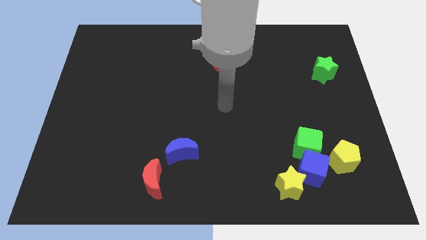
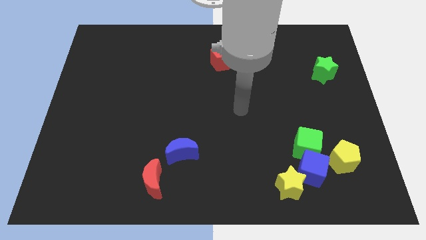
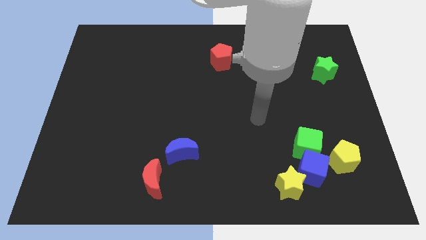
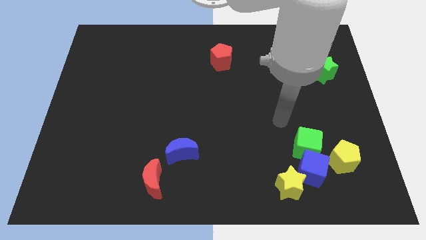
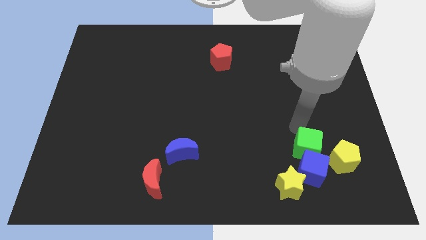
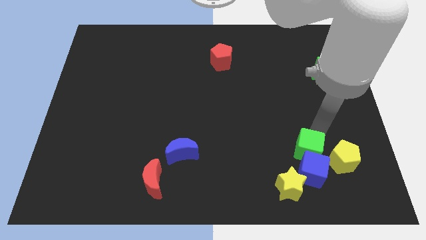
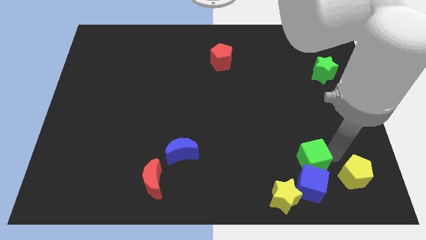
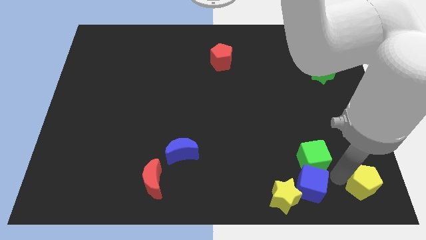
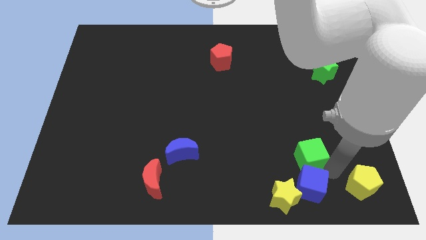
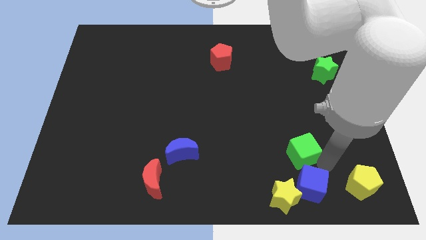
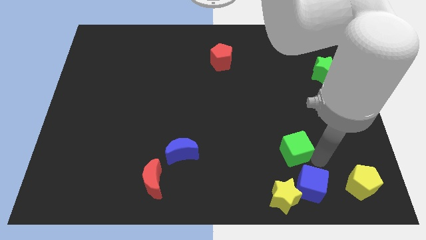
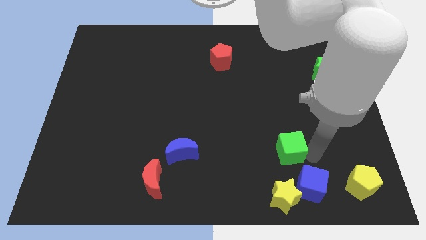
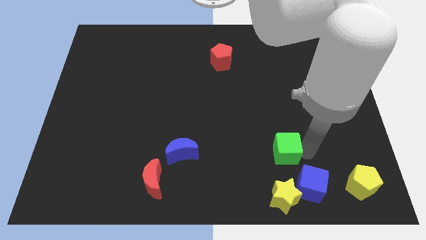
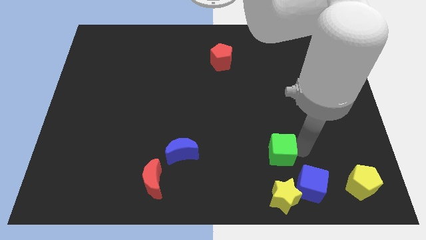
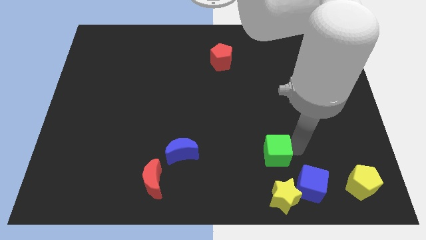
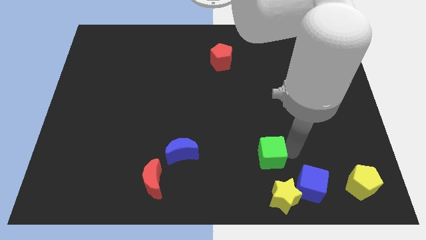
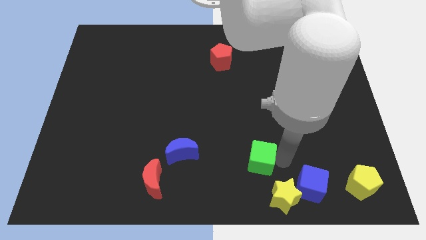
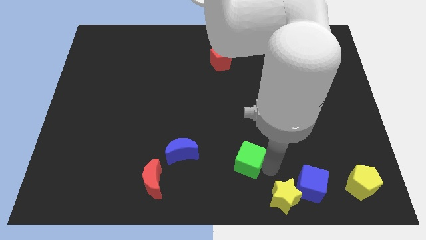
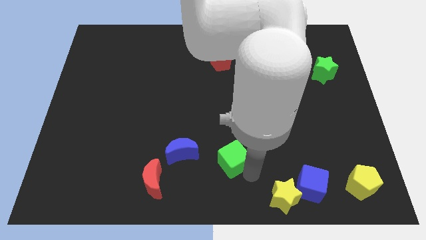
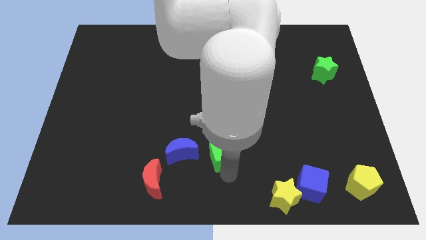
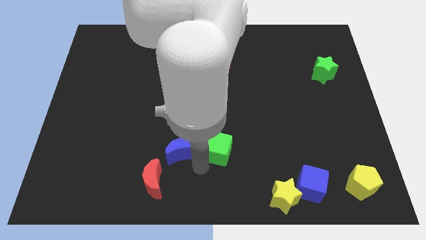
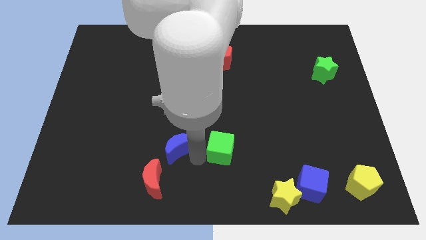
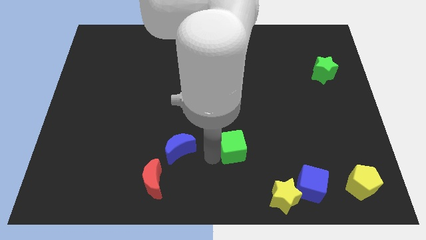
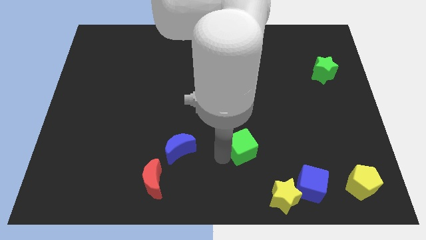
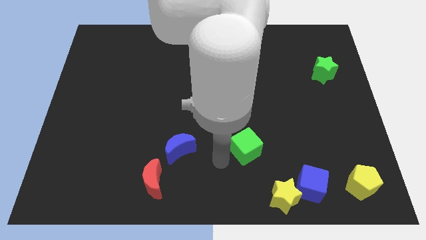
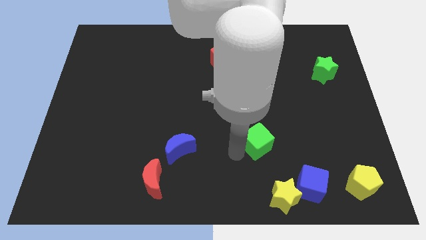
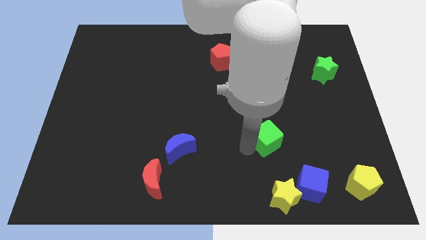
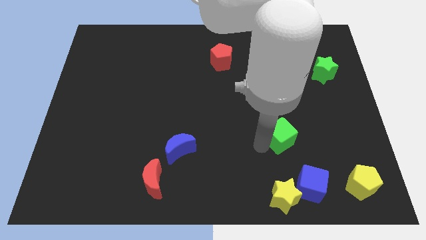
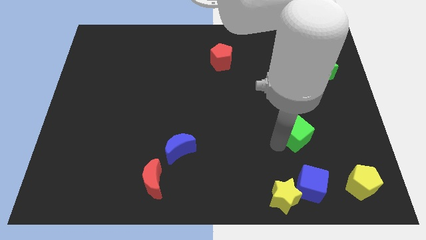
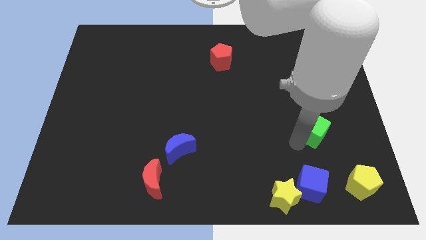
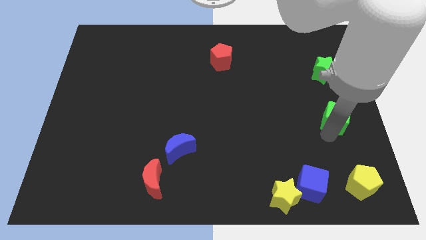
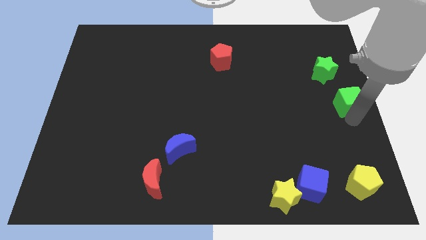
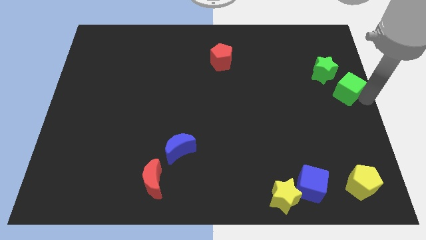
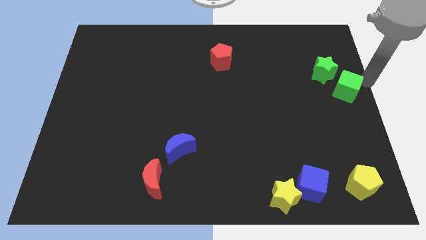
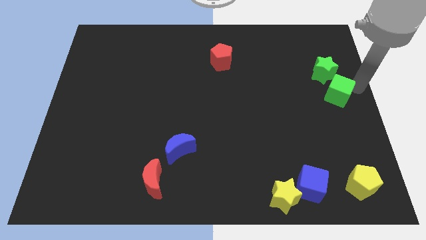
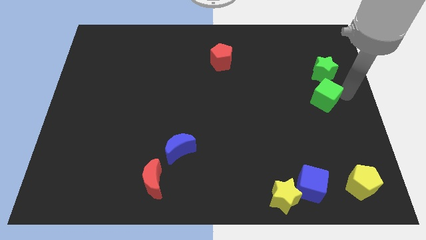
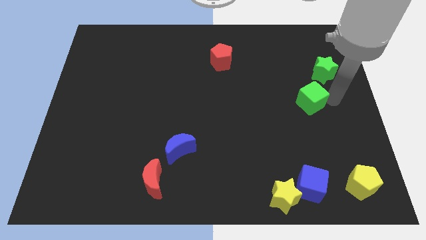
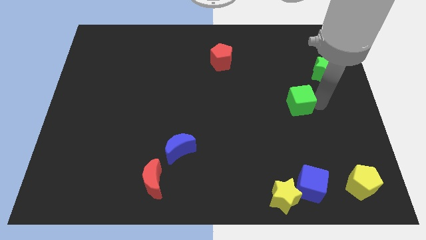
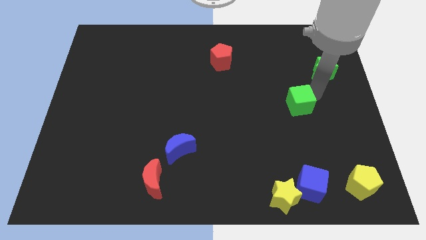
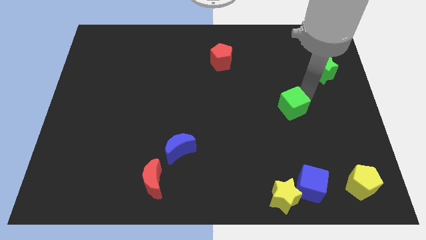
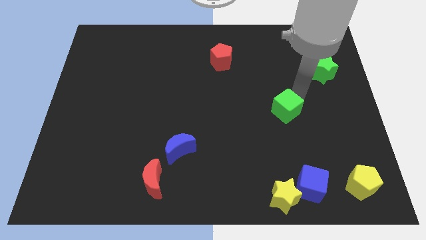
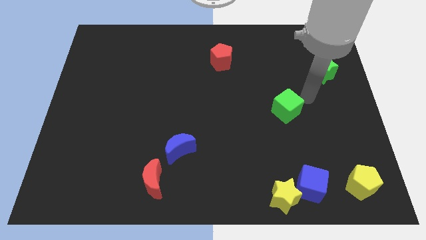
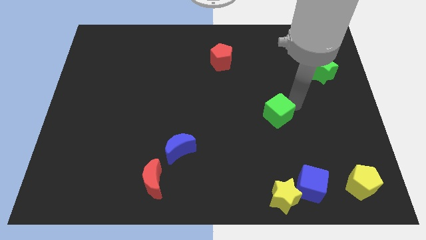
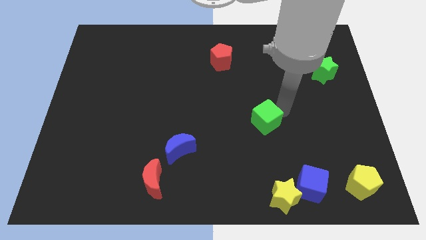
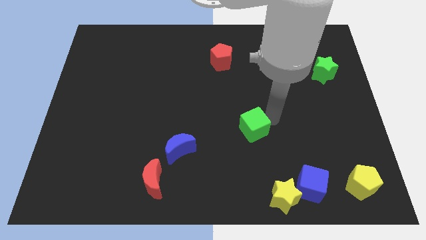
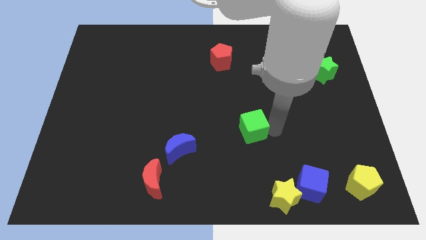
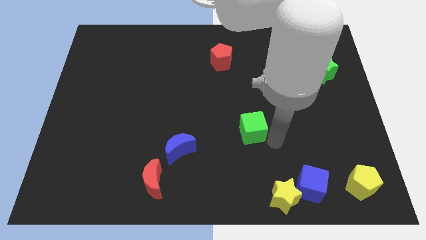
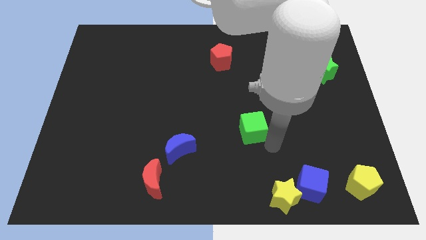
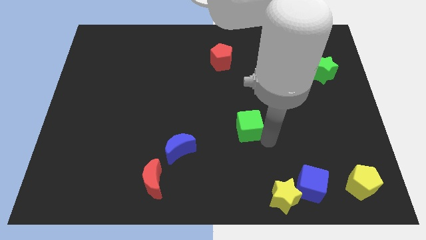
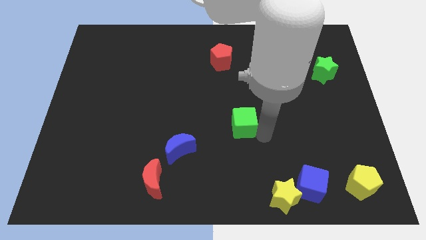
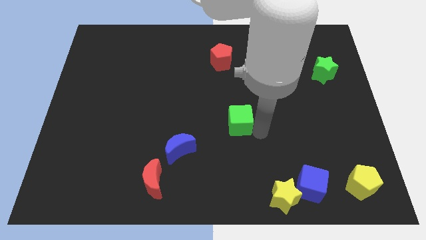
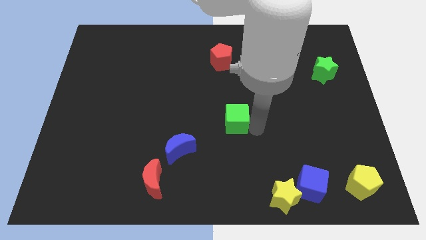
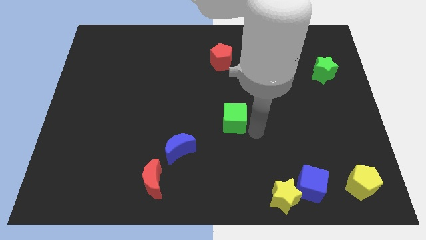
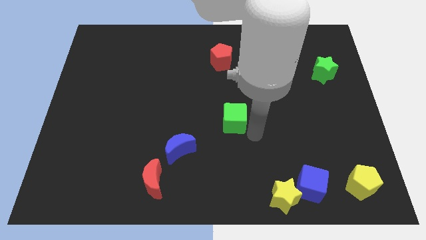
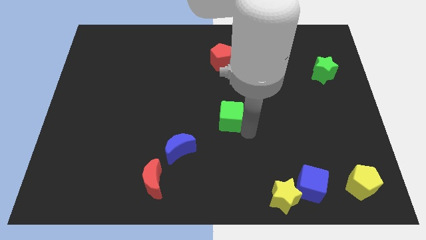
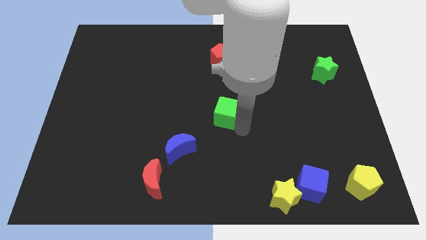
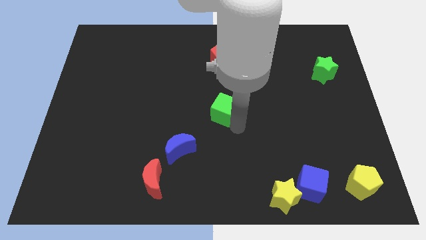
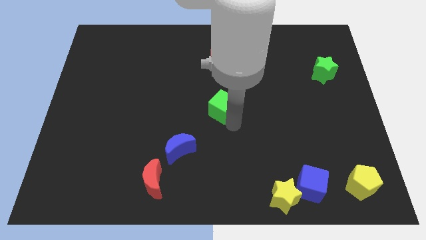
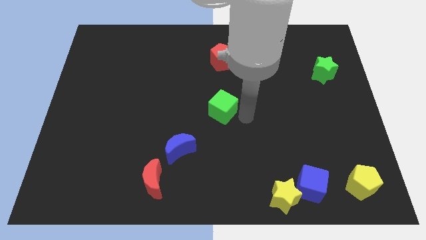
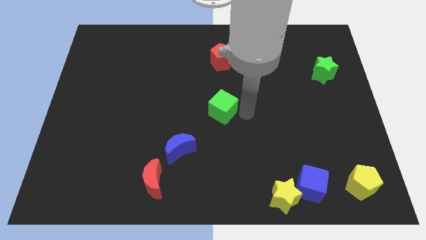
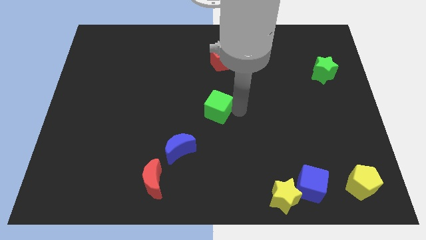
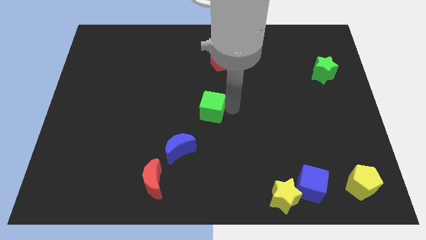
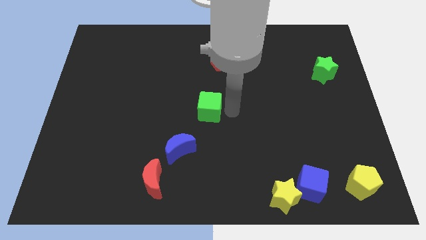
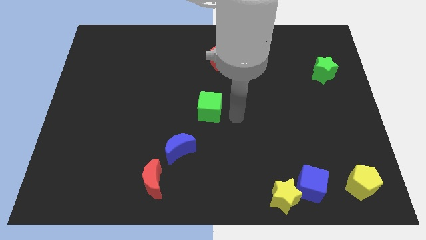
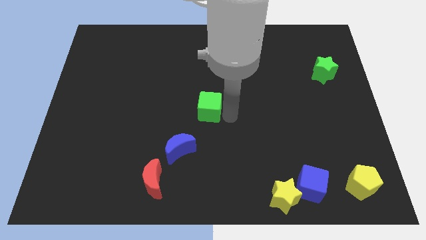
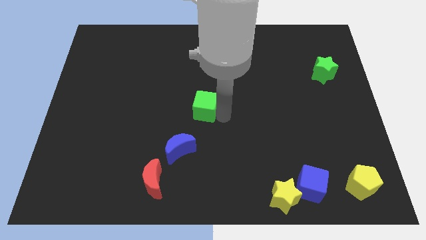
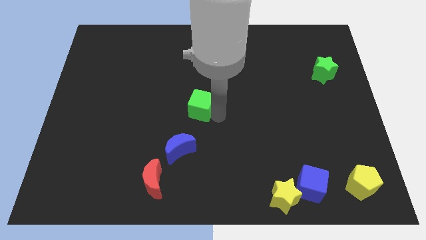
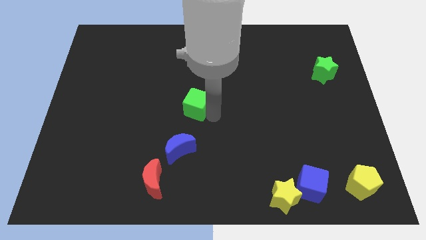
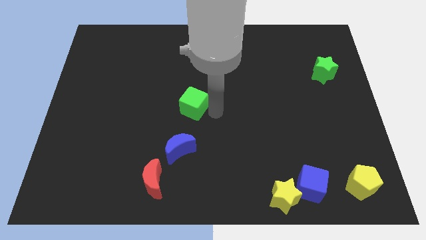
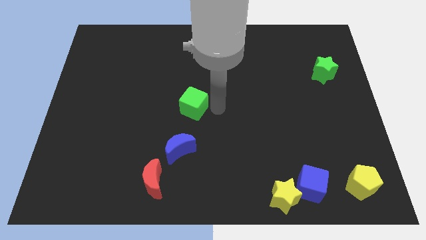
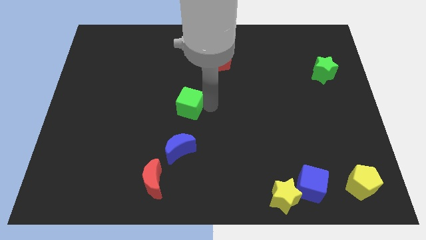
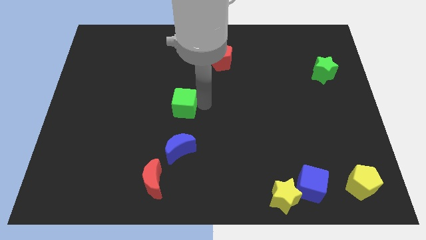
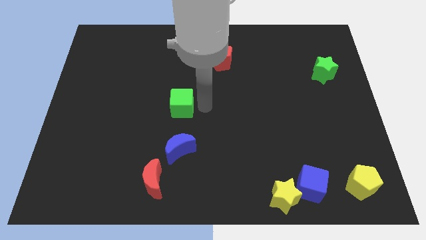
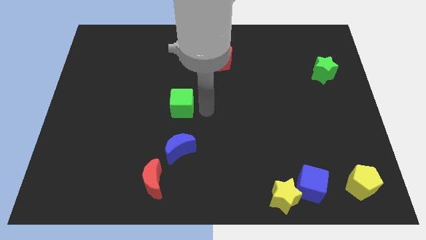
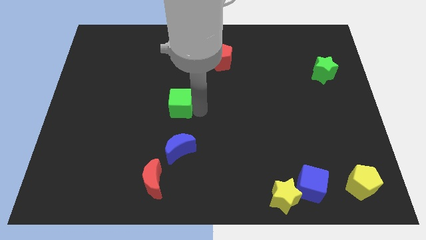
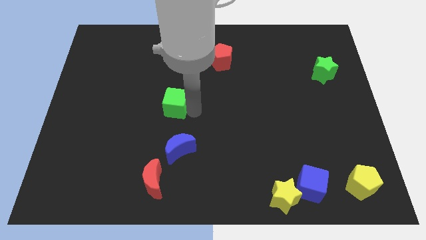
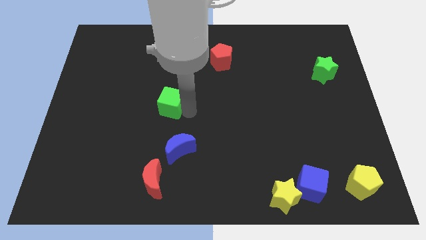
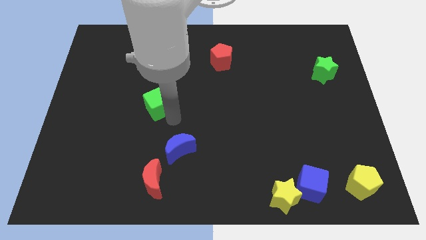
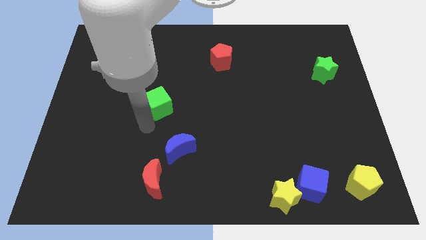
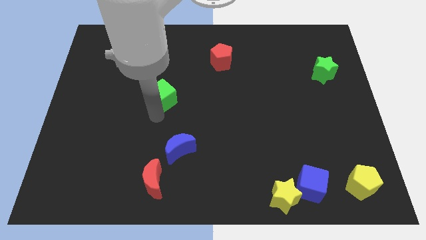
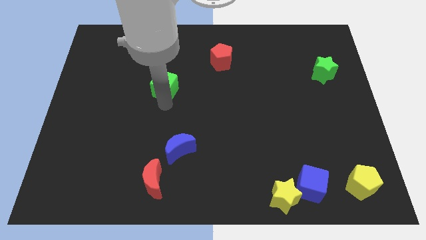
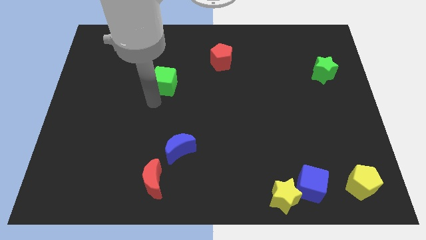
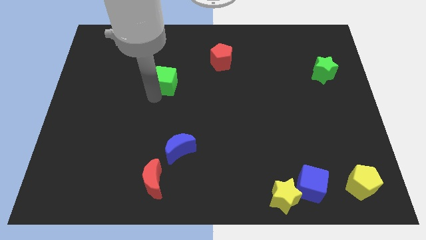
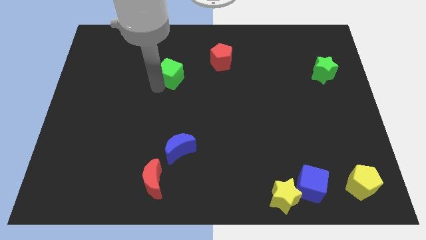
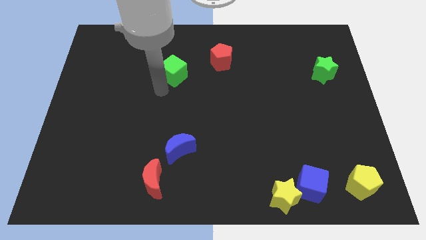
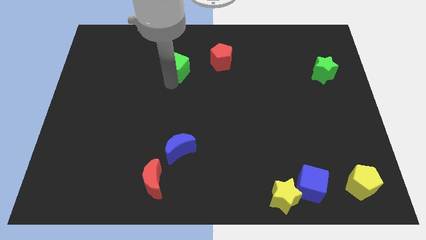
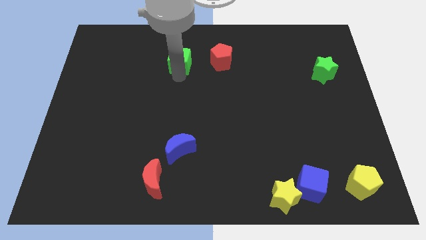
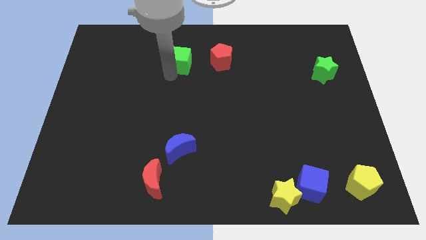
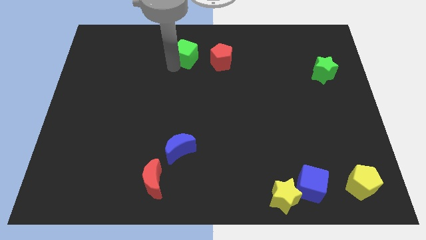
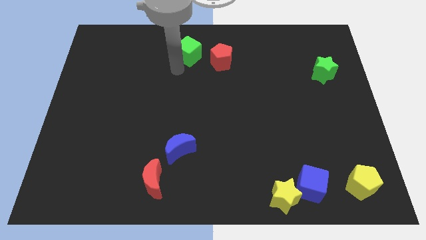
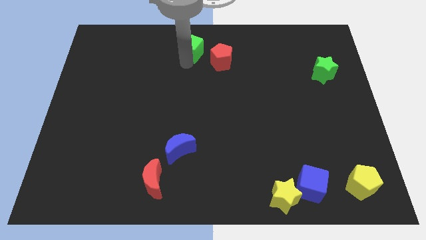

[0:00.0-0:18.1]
put the green cube to the top
